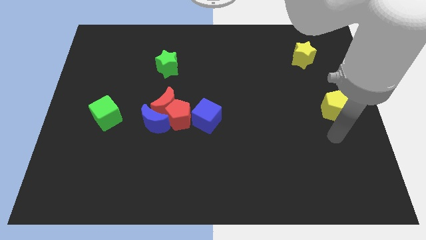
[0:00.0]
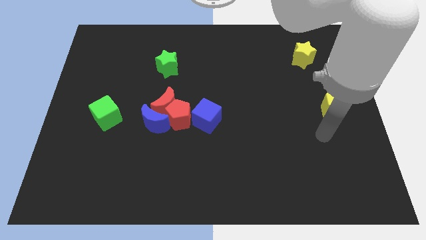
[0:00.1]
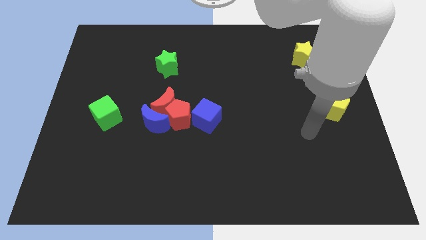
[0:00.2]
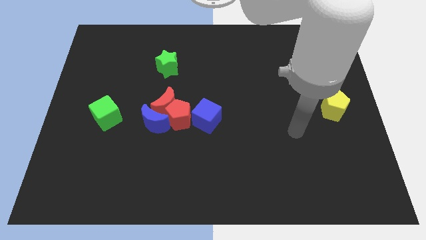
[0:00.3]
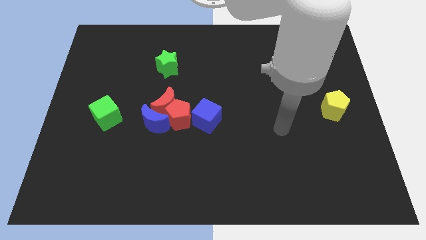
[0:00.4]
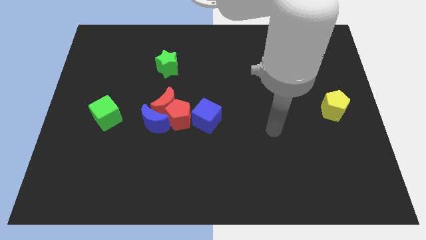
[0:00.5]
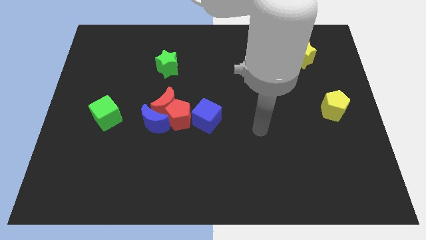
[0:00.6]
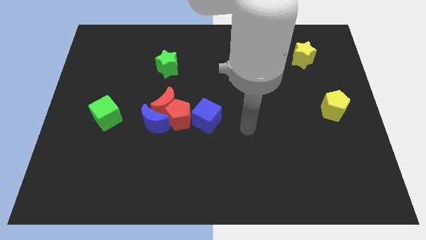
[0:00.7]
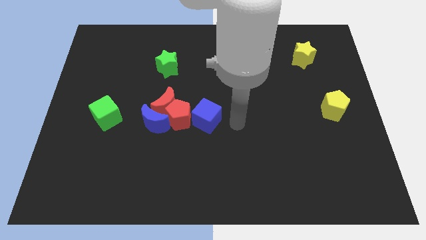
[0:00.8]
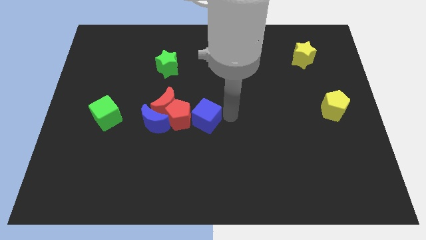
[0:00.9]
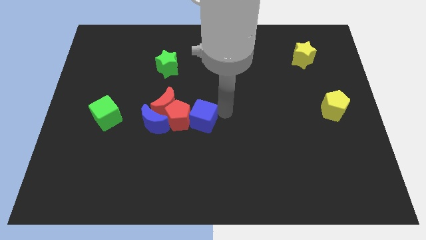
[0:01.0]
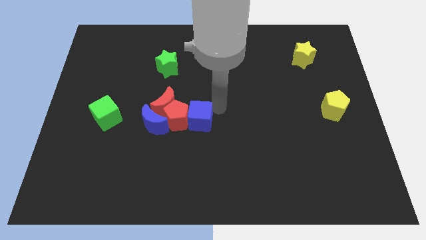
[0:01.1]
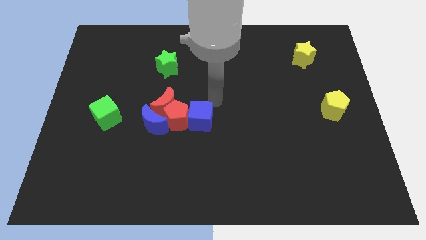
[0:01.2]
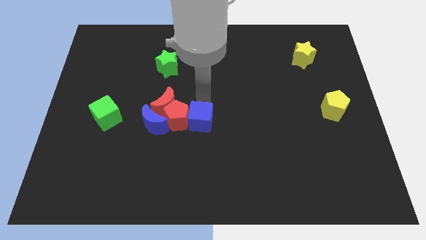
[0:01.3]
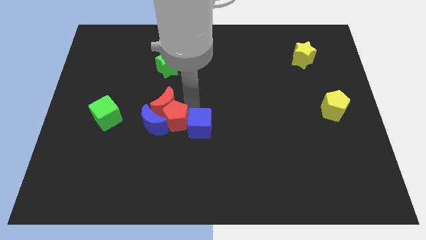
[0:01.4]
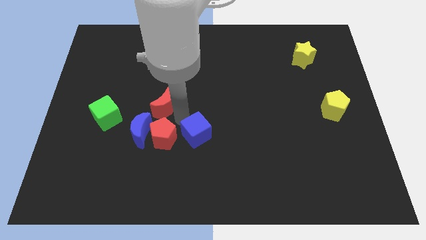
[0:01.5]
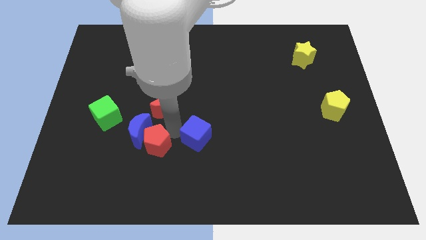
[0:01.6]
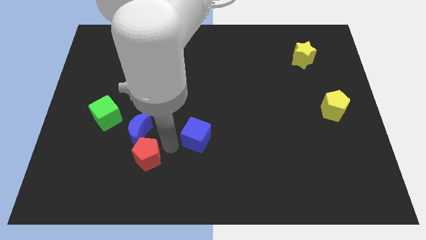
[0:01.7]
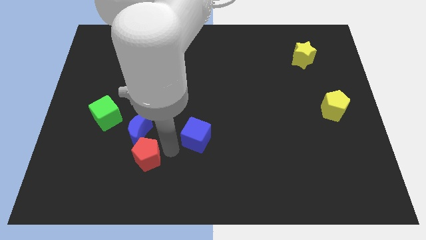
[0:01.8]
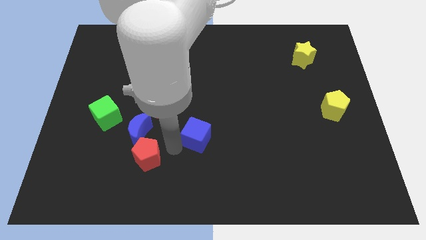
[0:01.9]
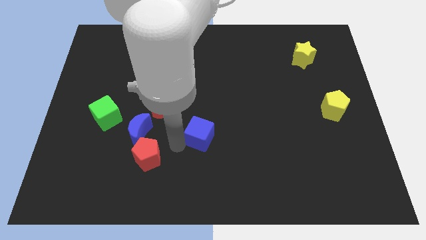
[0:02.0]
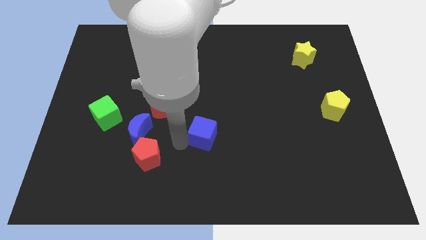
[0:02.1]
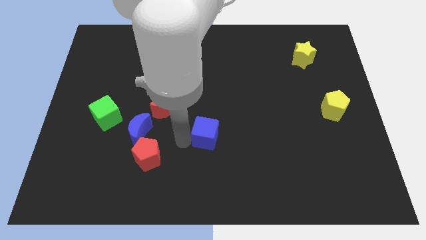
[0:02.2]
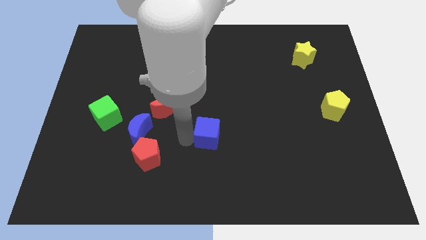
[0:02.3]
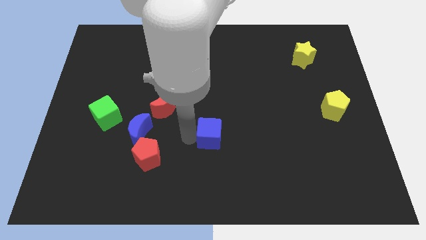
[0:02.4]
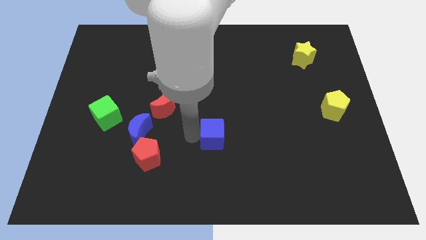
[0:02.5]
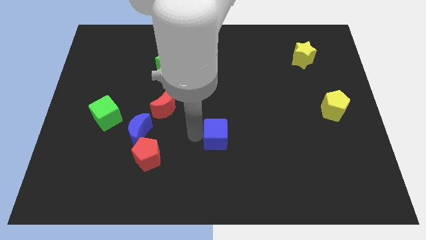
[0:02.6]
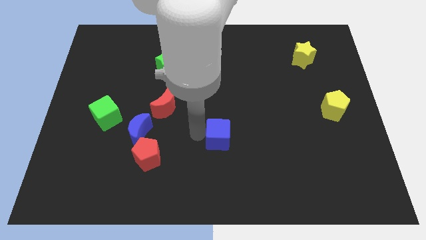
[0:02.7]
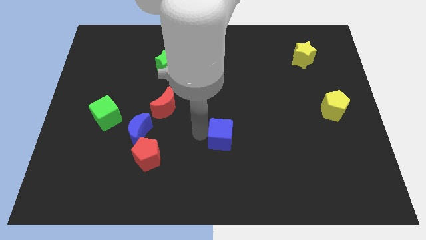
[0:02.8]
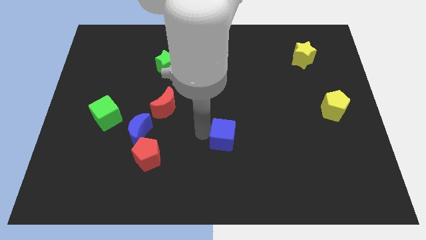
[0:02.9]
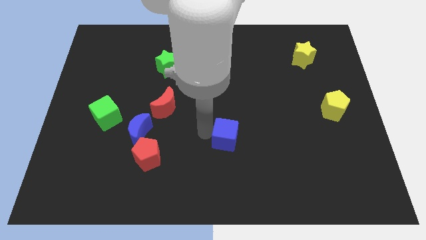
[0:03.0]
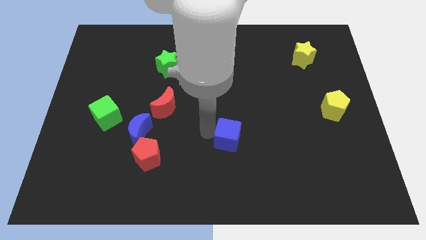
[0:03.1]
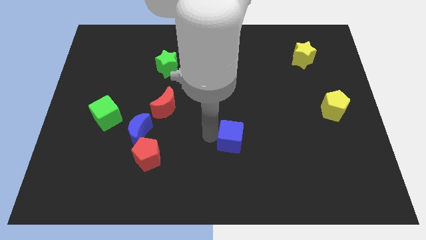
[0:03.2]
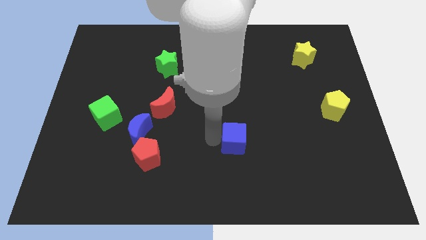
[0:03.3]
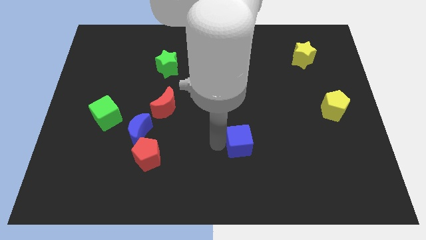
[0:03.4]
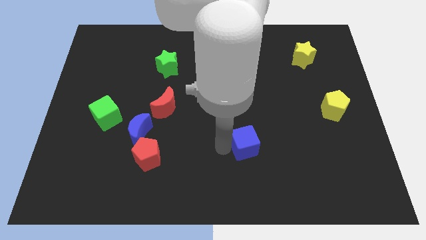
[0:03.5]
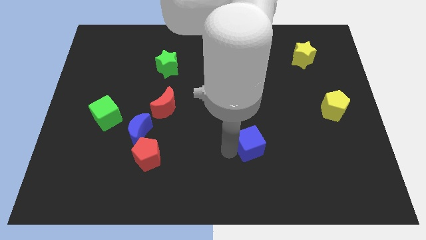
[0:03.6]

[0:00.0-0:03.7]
push the blue cube a bit right

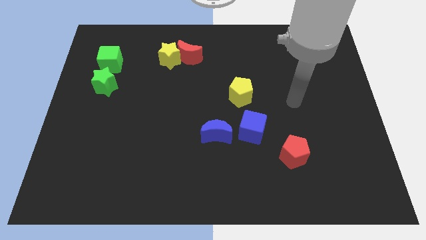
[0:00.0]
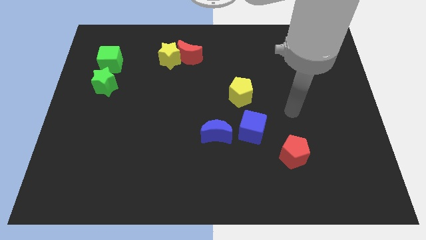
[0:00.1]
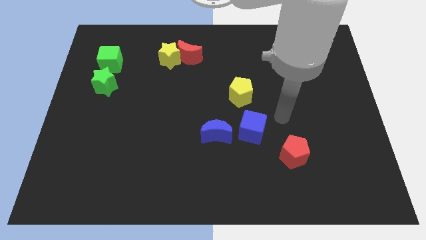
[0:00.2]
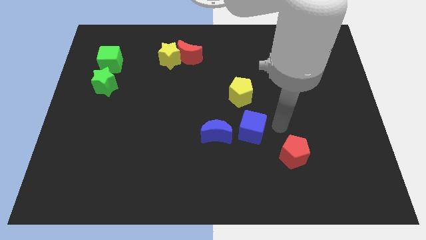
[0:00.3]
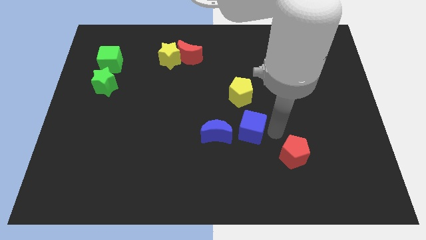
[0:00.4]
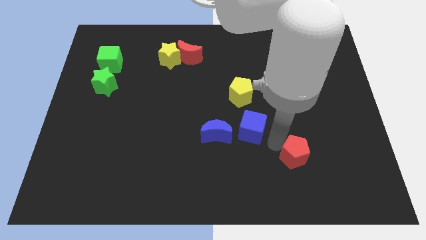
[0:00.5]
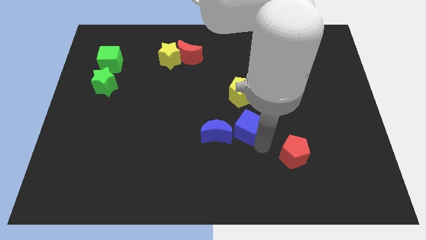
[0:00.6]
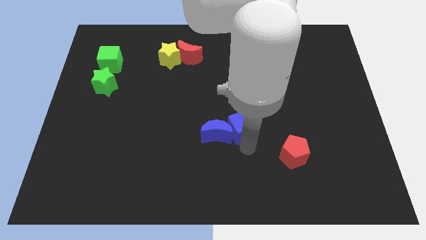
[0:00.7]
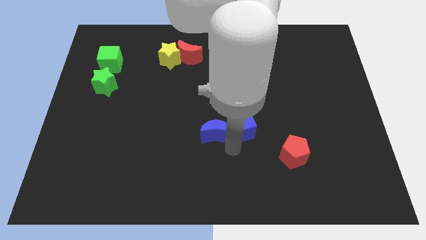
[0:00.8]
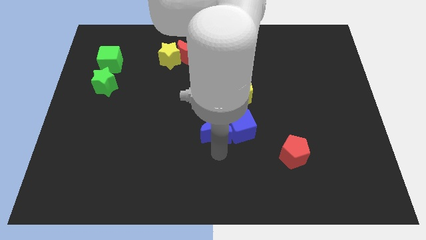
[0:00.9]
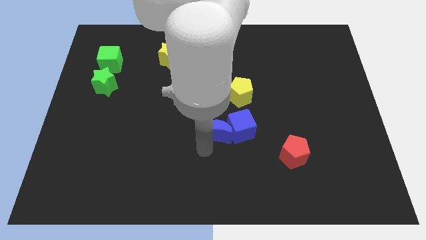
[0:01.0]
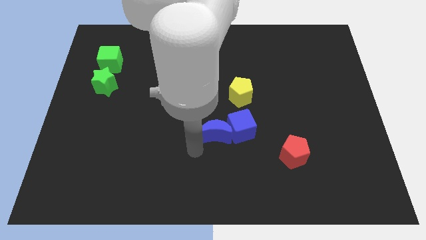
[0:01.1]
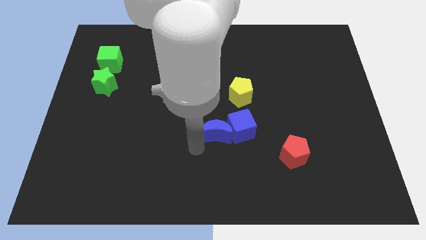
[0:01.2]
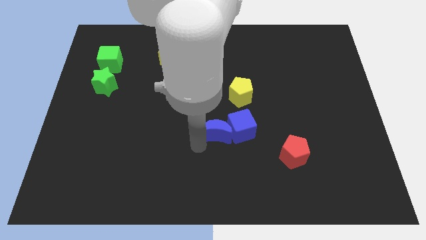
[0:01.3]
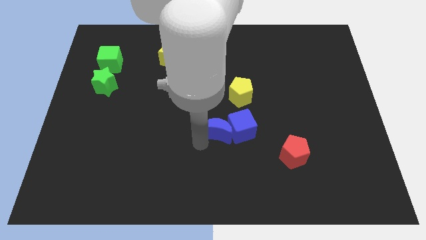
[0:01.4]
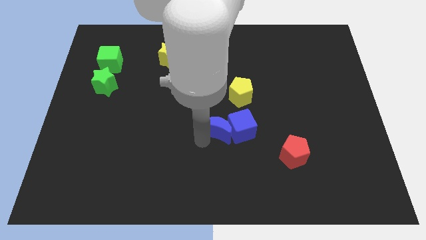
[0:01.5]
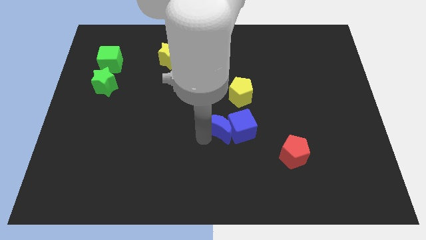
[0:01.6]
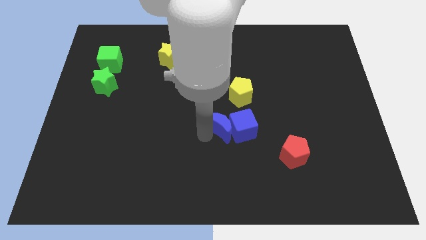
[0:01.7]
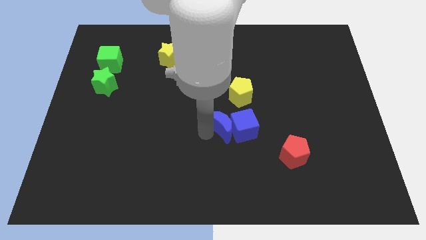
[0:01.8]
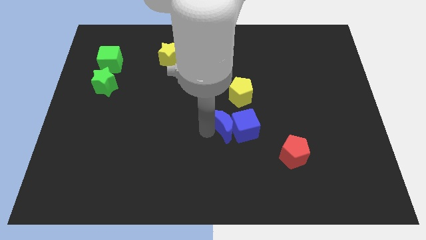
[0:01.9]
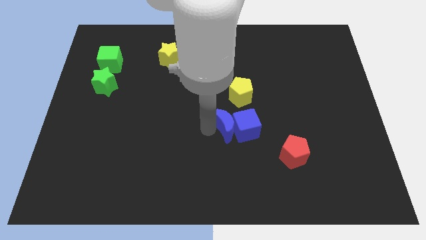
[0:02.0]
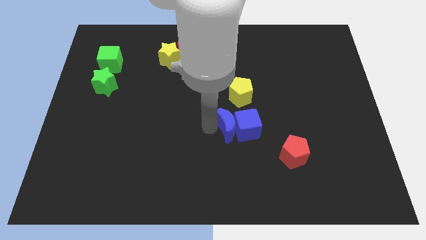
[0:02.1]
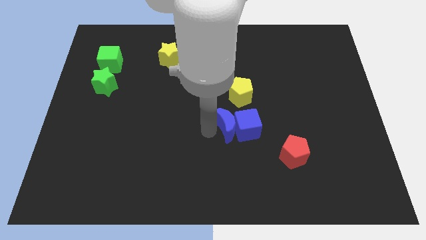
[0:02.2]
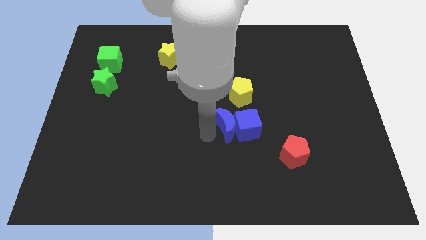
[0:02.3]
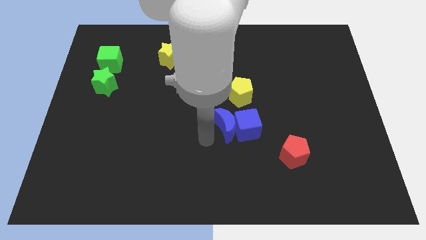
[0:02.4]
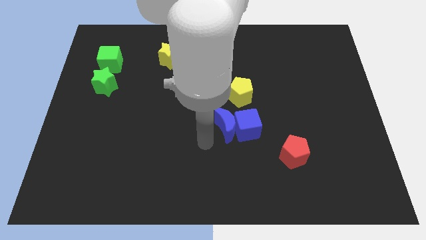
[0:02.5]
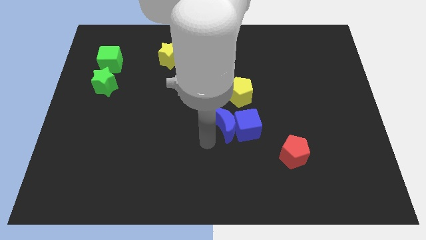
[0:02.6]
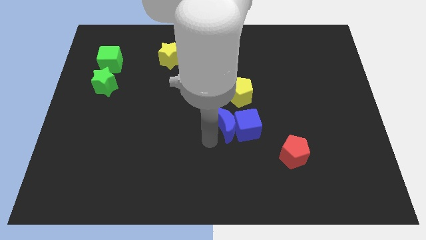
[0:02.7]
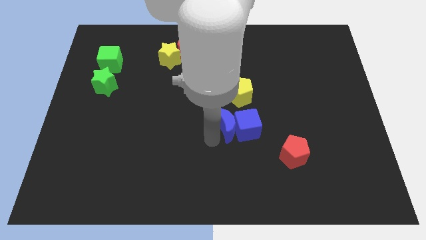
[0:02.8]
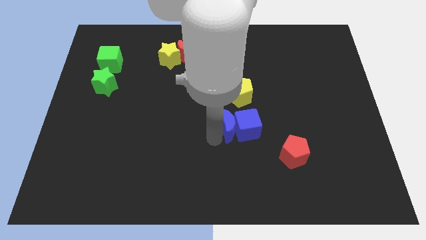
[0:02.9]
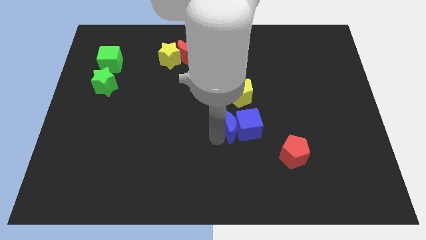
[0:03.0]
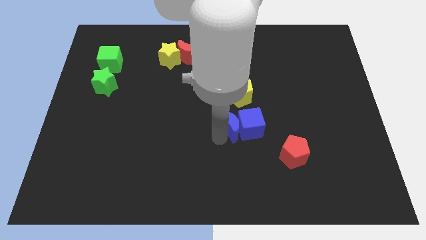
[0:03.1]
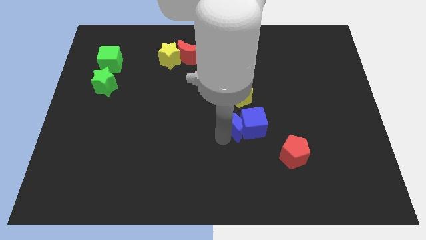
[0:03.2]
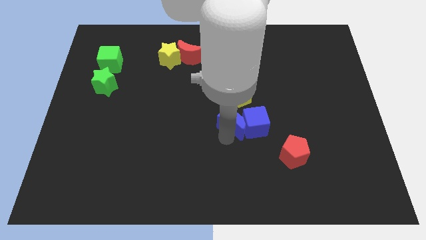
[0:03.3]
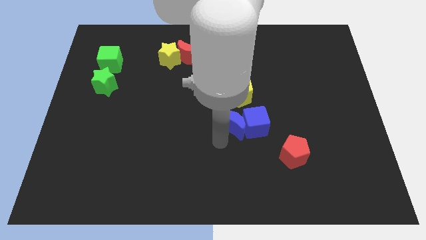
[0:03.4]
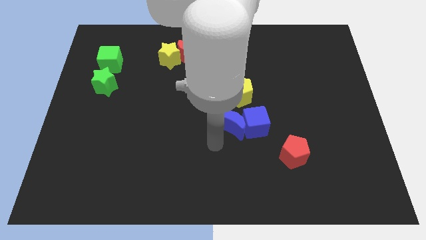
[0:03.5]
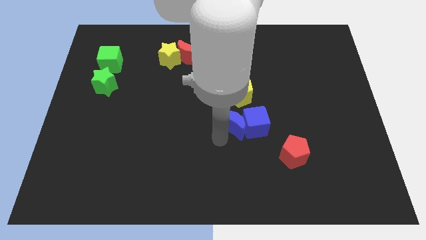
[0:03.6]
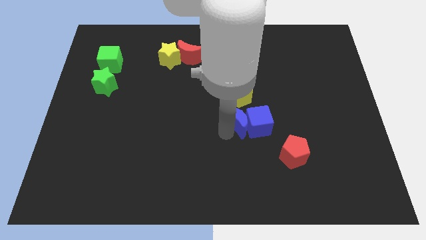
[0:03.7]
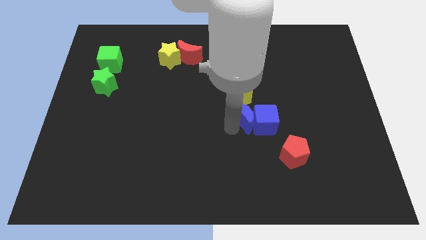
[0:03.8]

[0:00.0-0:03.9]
slightly push the blue moon diagonally up and right
